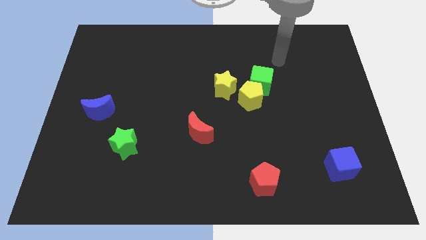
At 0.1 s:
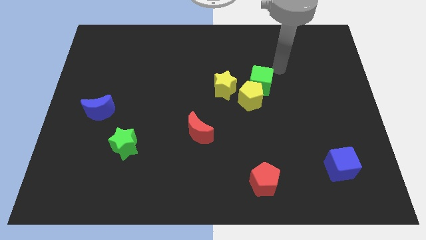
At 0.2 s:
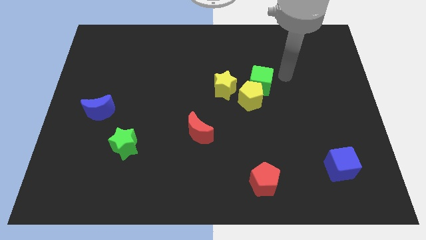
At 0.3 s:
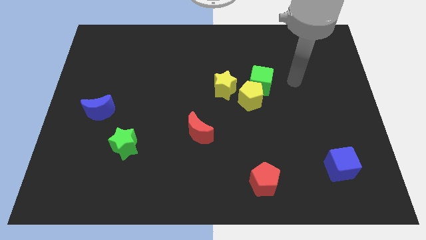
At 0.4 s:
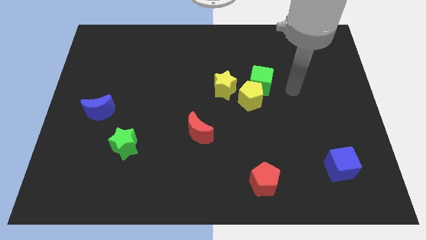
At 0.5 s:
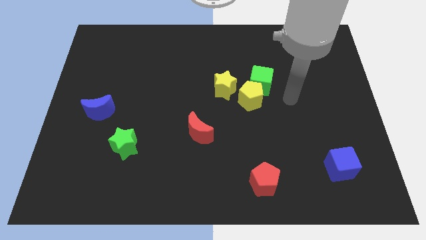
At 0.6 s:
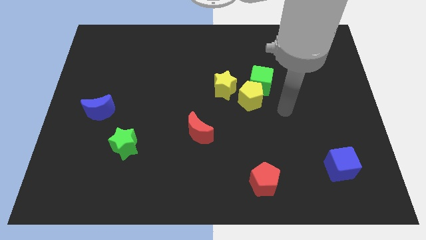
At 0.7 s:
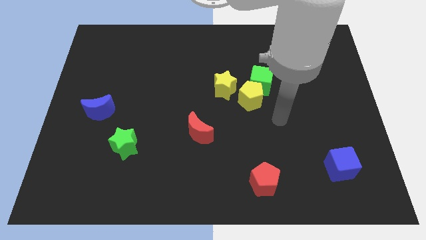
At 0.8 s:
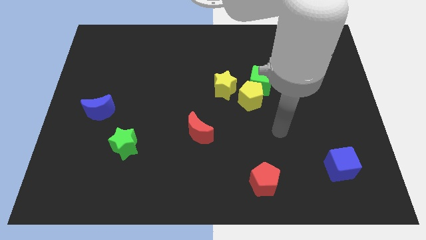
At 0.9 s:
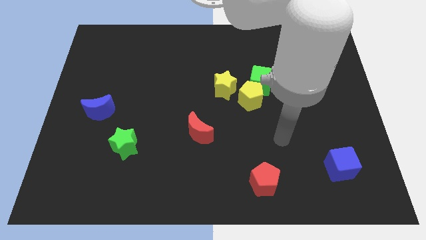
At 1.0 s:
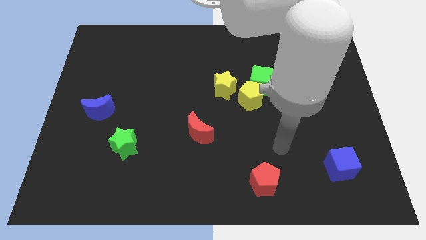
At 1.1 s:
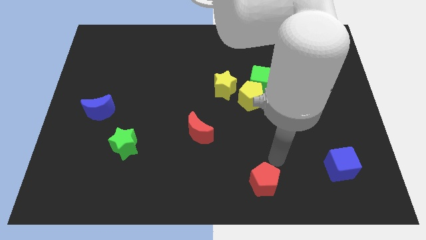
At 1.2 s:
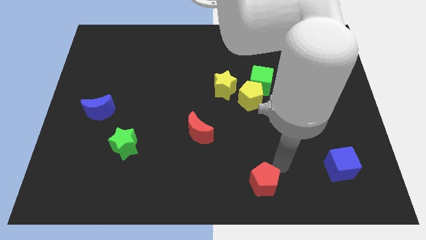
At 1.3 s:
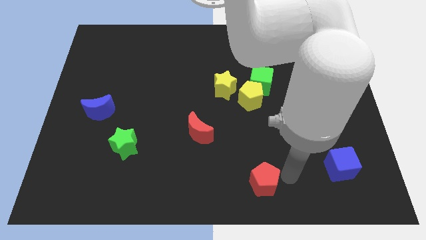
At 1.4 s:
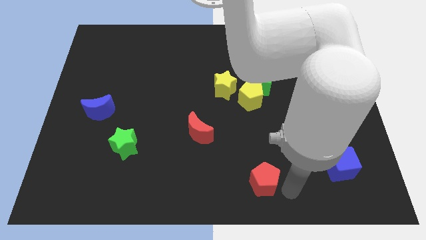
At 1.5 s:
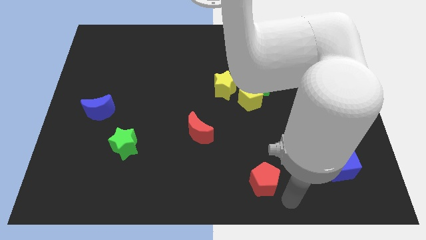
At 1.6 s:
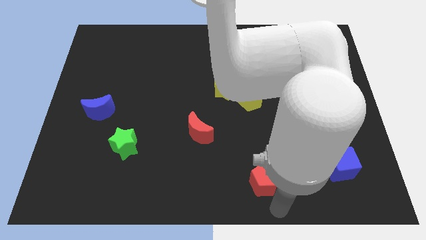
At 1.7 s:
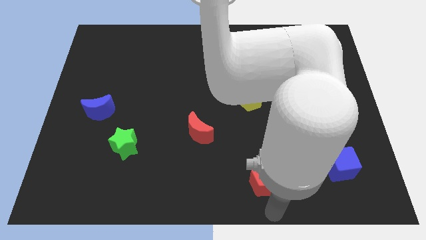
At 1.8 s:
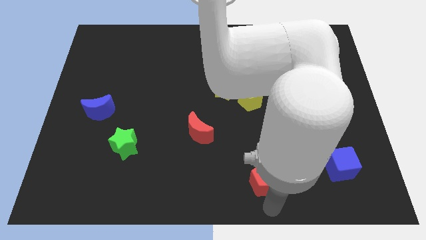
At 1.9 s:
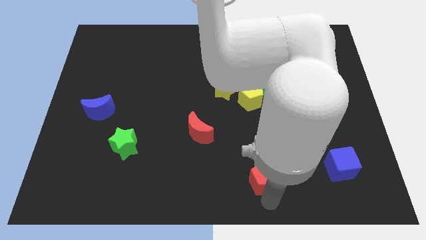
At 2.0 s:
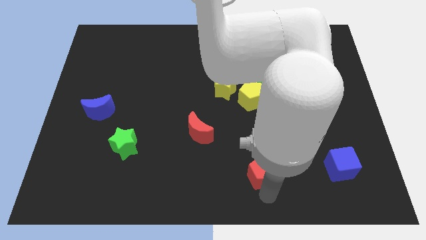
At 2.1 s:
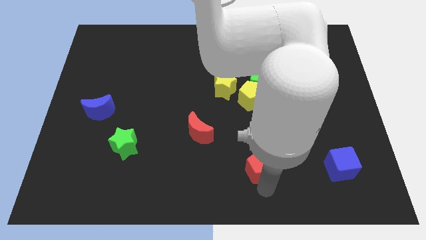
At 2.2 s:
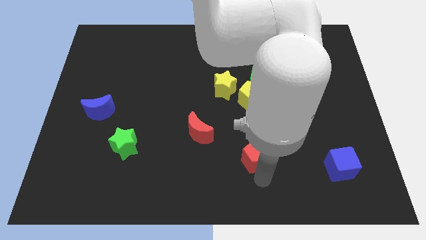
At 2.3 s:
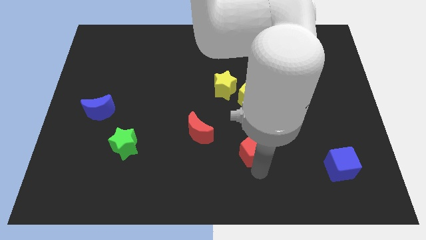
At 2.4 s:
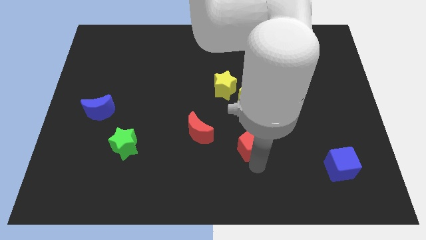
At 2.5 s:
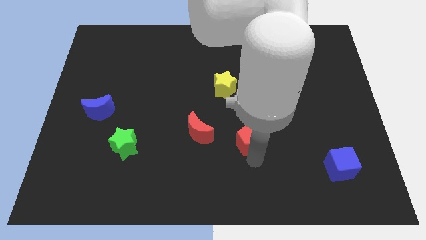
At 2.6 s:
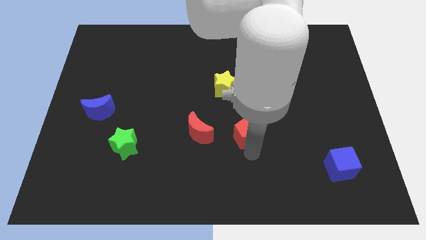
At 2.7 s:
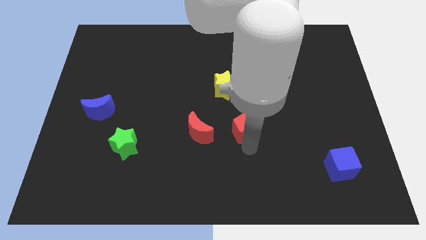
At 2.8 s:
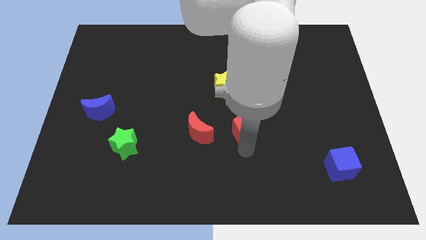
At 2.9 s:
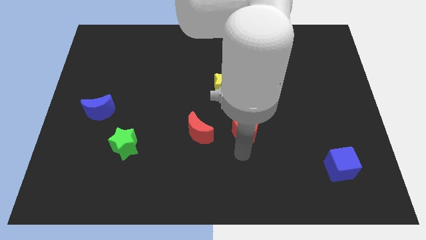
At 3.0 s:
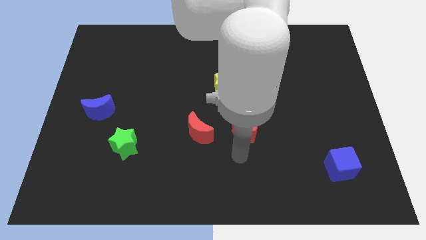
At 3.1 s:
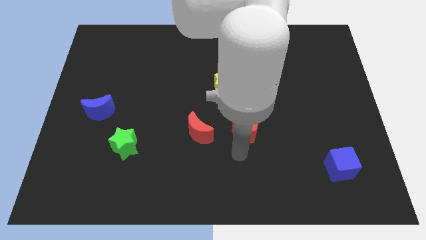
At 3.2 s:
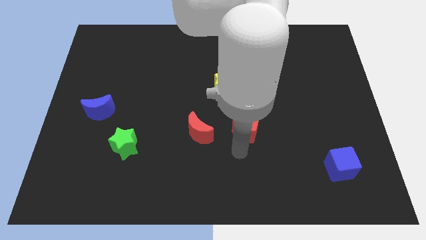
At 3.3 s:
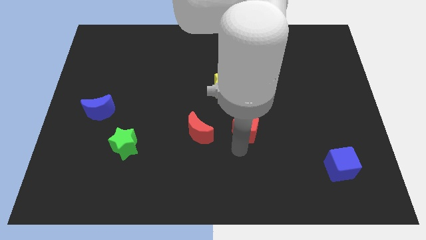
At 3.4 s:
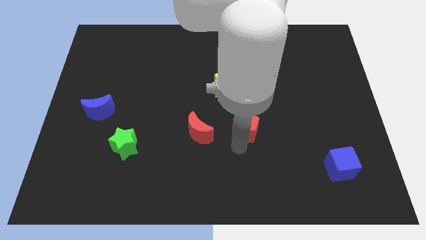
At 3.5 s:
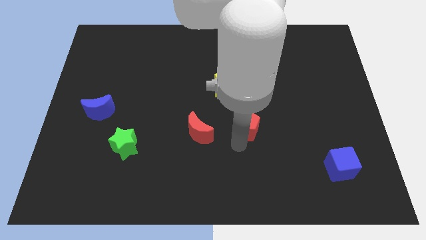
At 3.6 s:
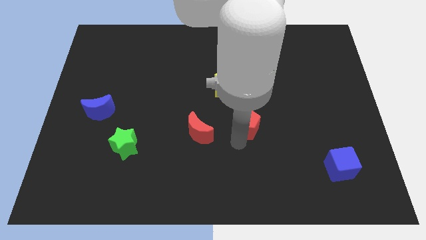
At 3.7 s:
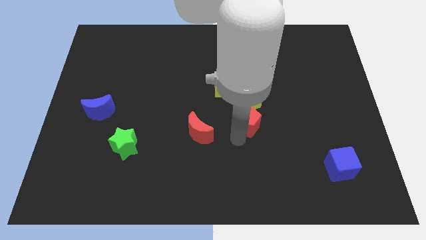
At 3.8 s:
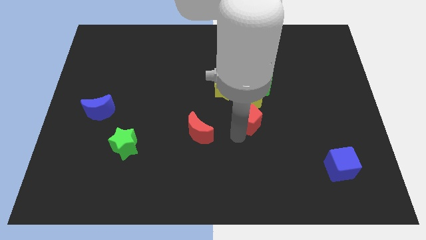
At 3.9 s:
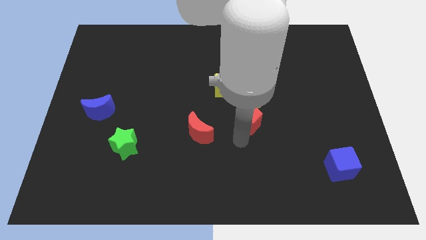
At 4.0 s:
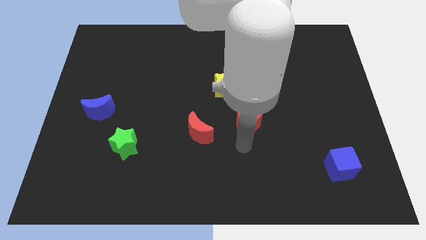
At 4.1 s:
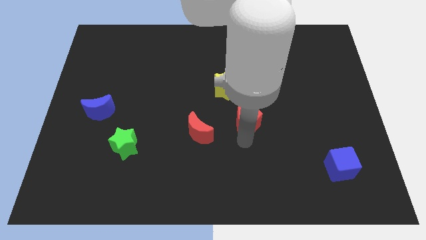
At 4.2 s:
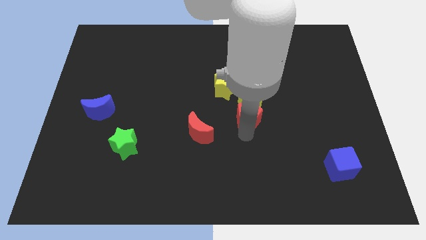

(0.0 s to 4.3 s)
move the red pentagon to the yellow pentagon

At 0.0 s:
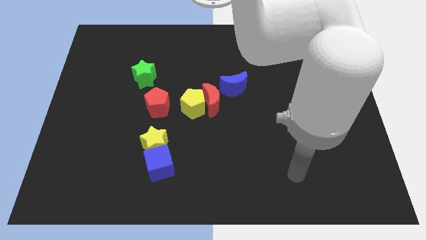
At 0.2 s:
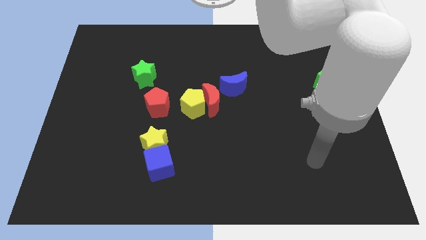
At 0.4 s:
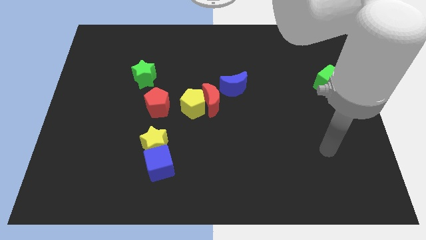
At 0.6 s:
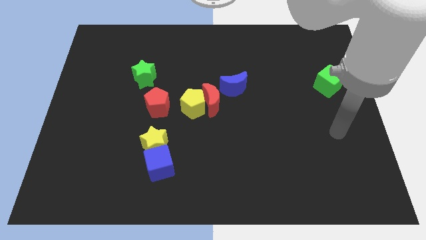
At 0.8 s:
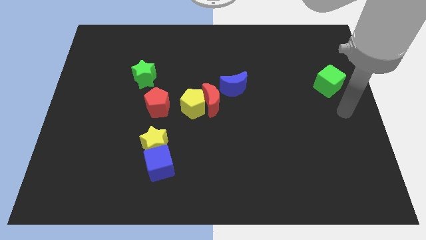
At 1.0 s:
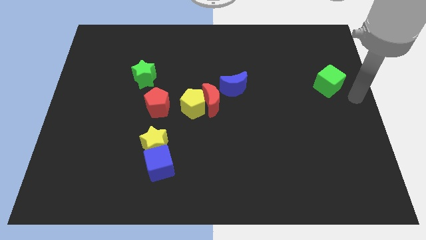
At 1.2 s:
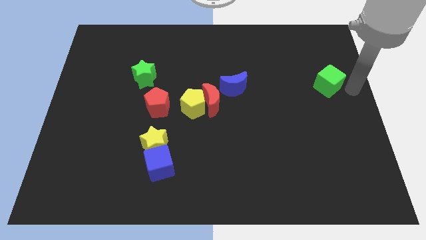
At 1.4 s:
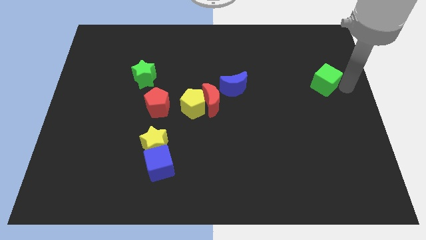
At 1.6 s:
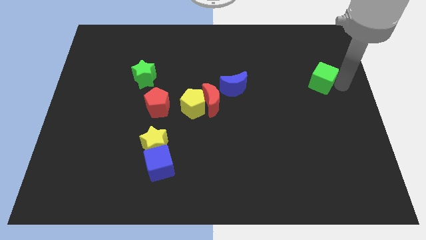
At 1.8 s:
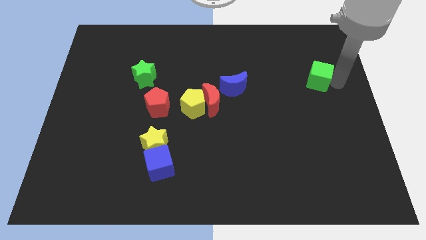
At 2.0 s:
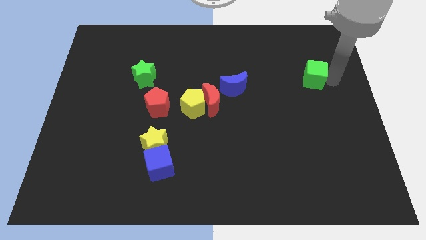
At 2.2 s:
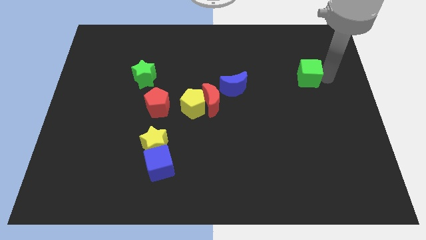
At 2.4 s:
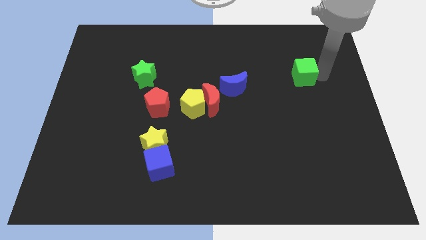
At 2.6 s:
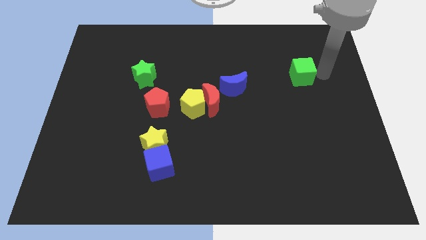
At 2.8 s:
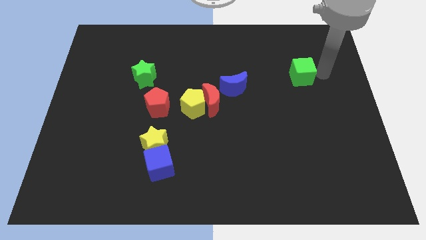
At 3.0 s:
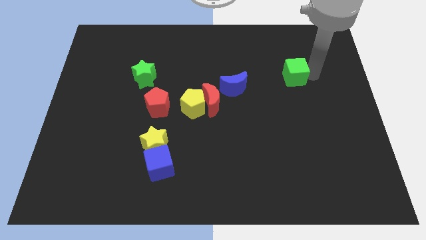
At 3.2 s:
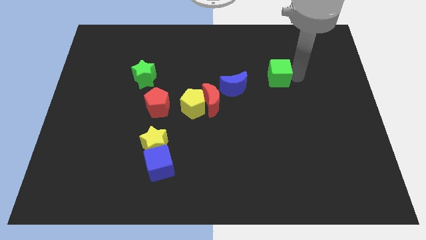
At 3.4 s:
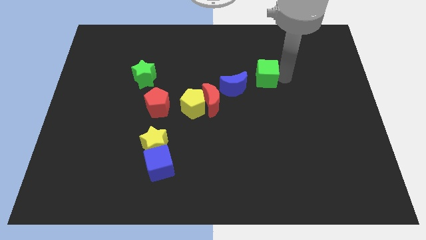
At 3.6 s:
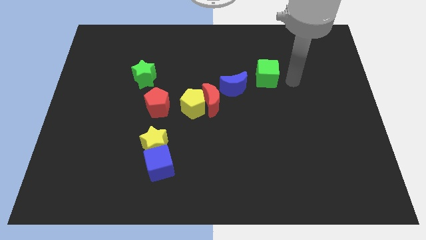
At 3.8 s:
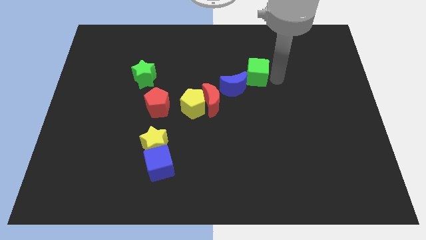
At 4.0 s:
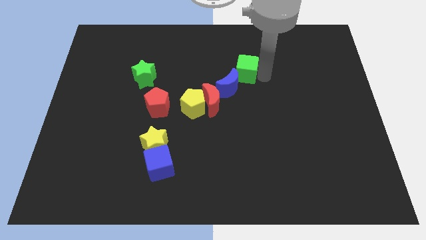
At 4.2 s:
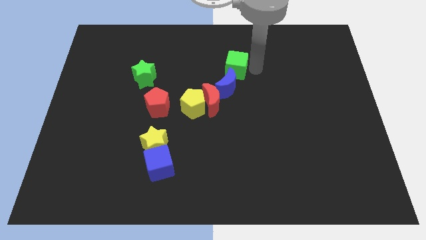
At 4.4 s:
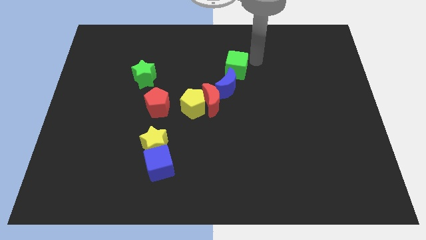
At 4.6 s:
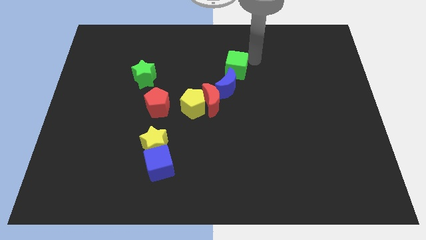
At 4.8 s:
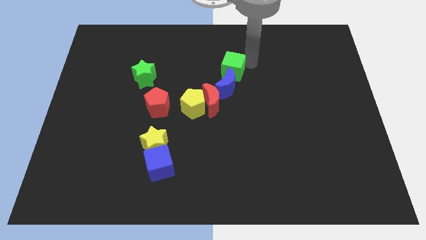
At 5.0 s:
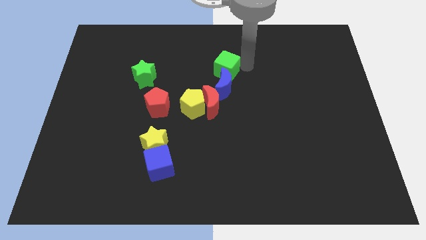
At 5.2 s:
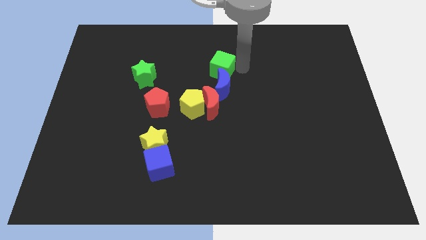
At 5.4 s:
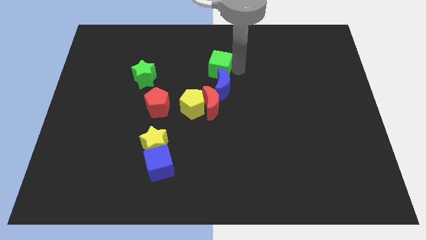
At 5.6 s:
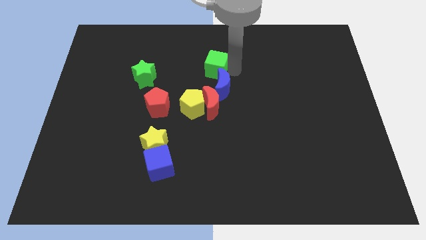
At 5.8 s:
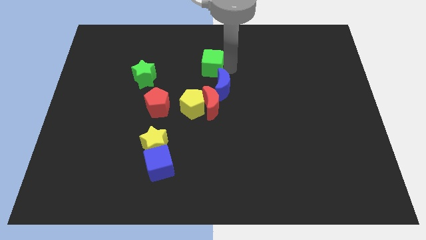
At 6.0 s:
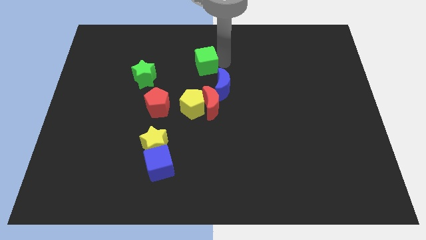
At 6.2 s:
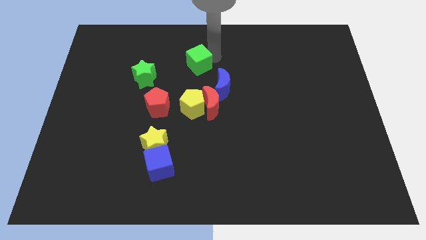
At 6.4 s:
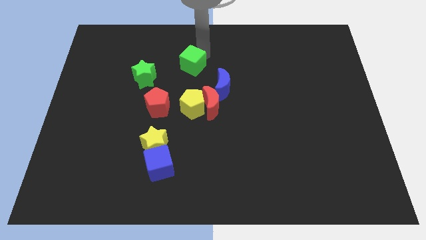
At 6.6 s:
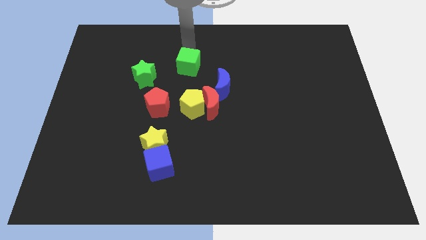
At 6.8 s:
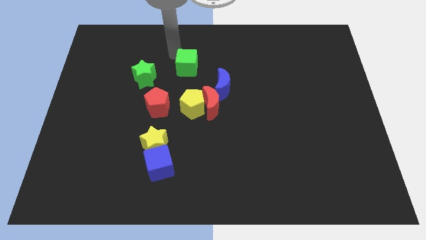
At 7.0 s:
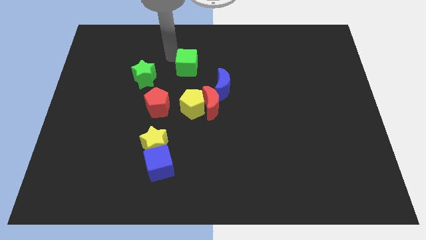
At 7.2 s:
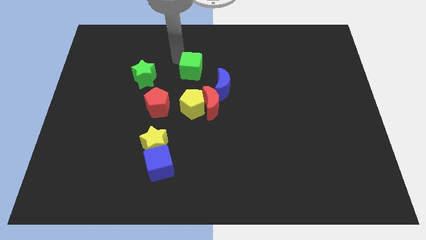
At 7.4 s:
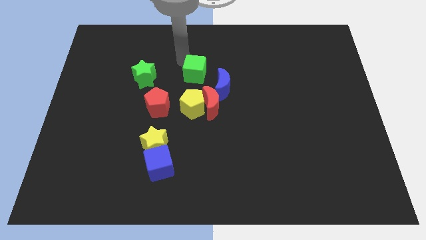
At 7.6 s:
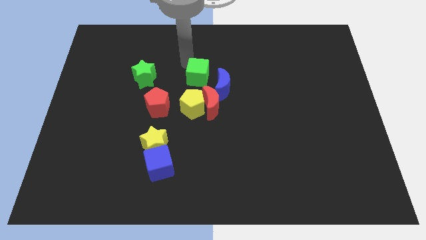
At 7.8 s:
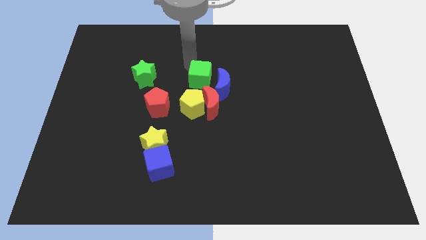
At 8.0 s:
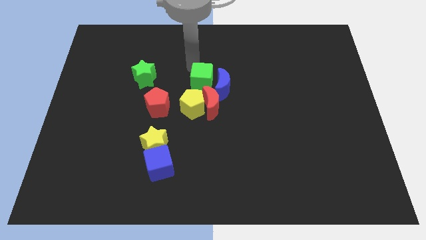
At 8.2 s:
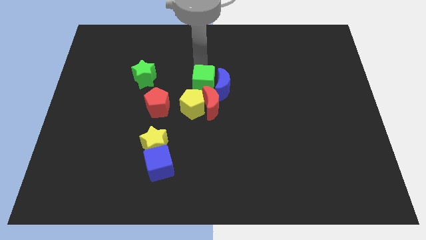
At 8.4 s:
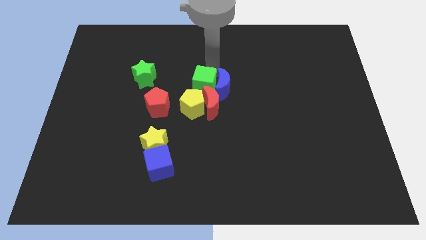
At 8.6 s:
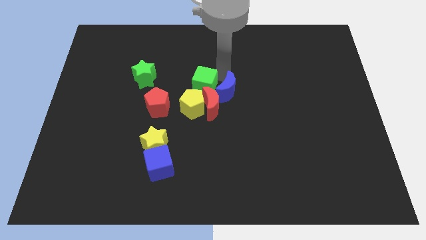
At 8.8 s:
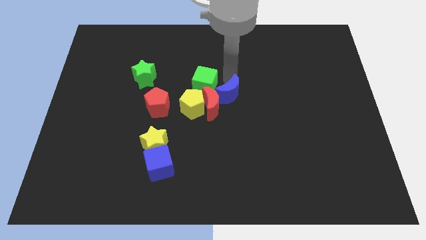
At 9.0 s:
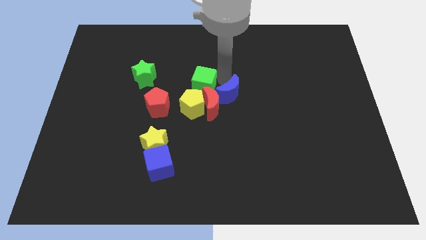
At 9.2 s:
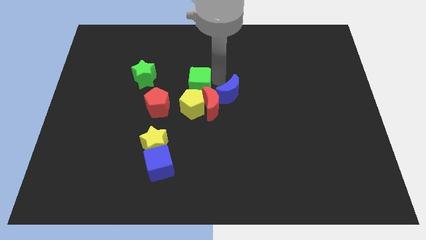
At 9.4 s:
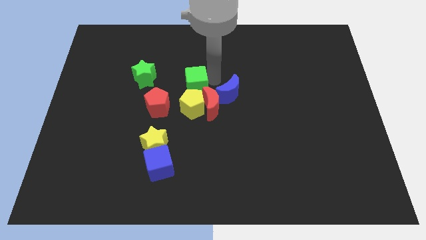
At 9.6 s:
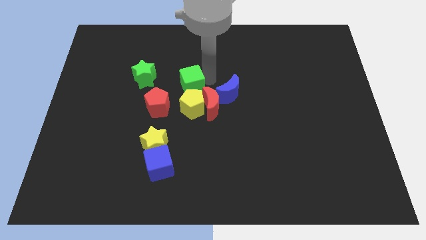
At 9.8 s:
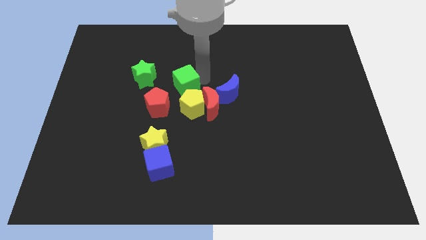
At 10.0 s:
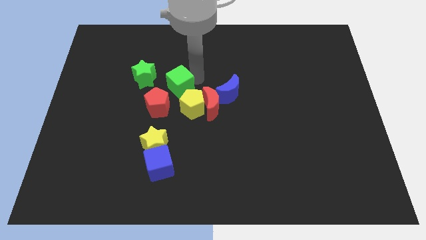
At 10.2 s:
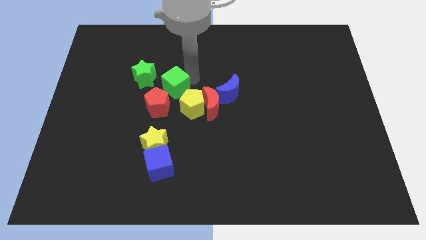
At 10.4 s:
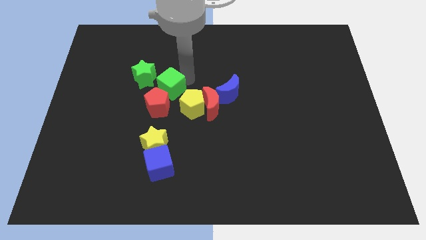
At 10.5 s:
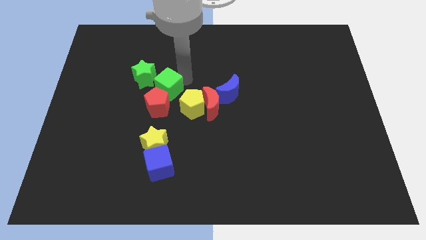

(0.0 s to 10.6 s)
push the green cube next to the red pentagon
